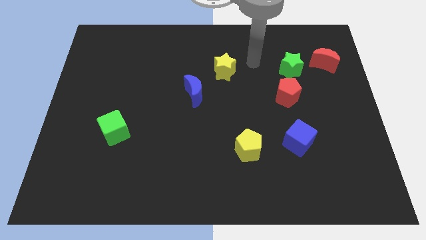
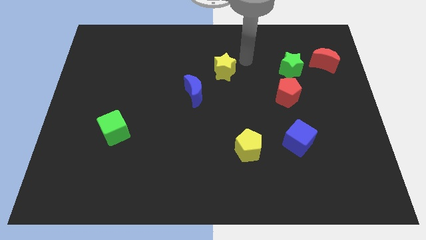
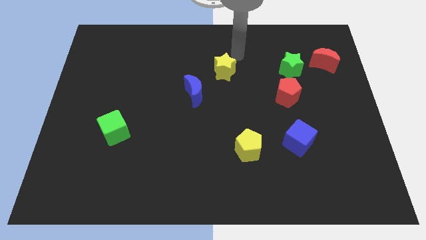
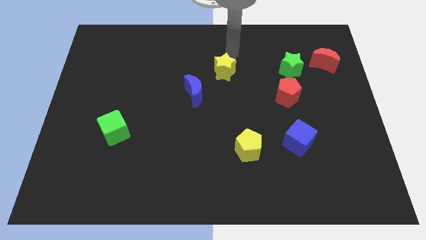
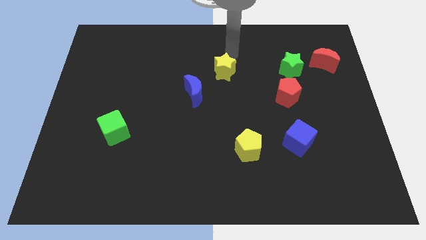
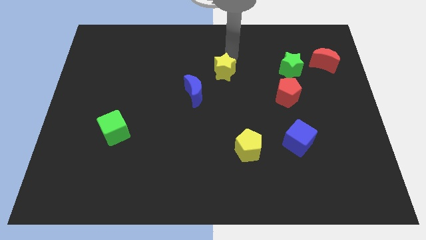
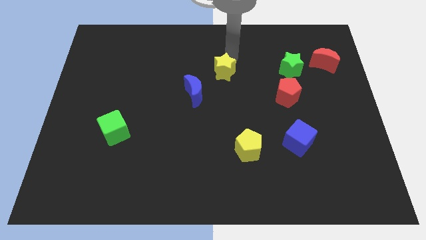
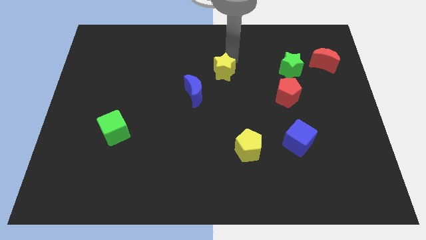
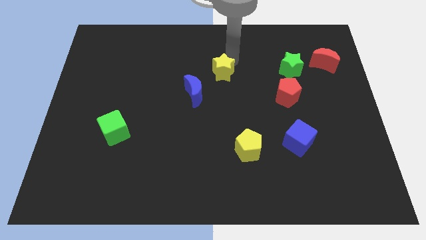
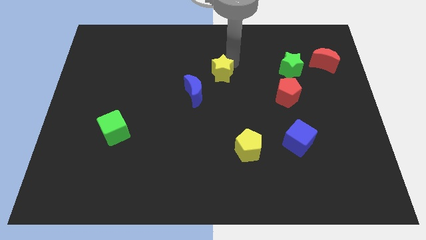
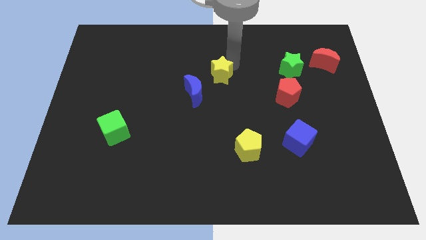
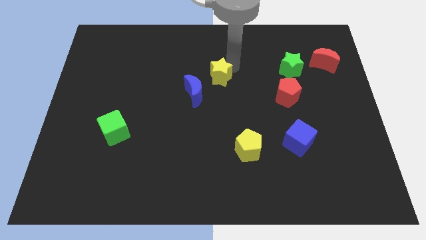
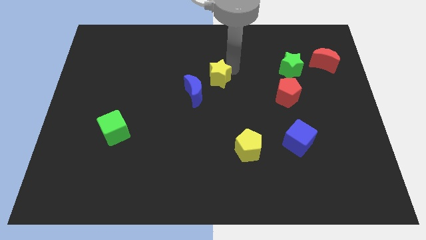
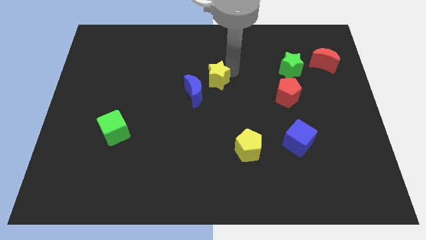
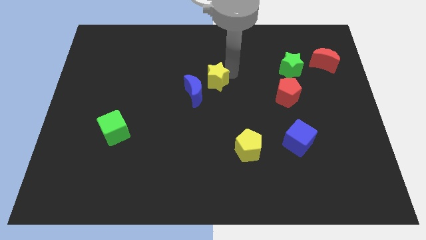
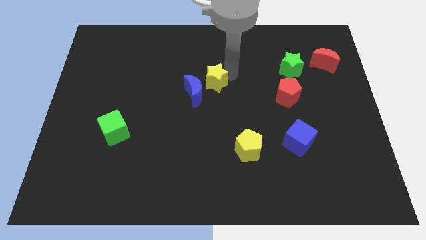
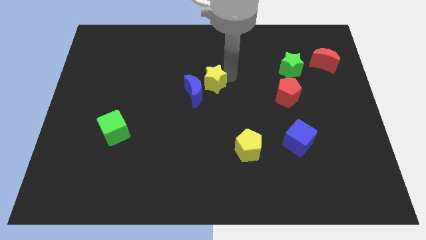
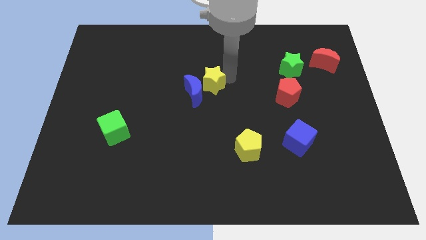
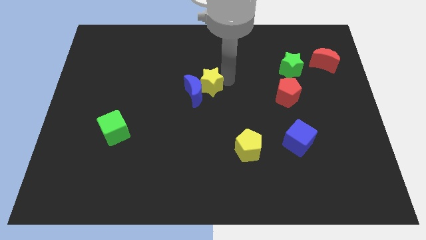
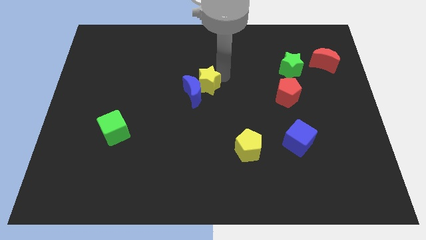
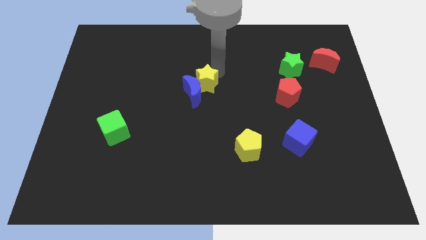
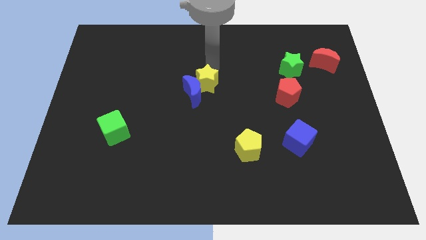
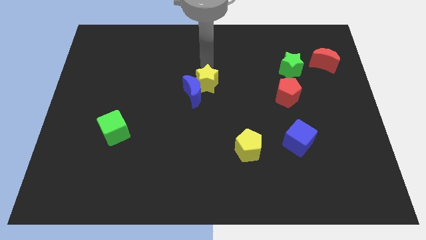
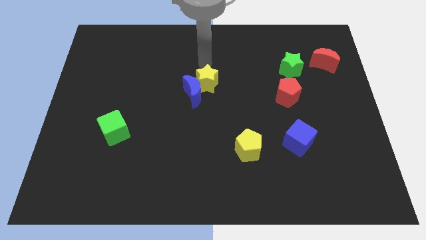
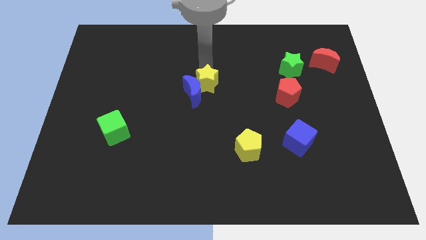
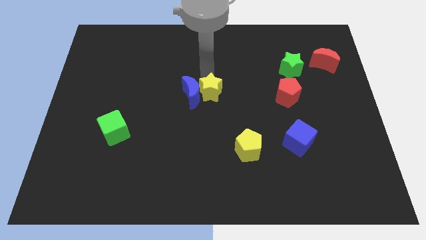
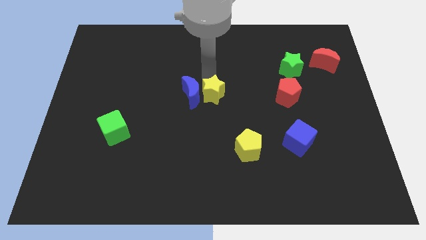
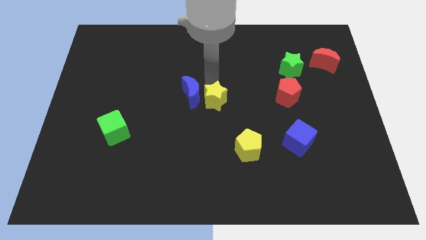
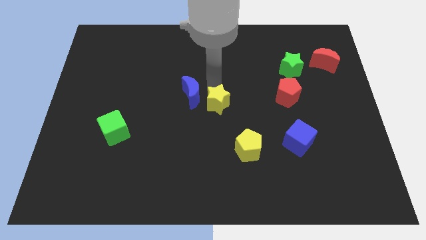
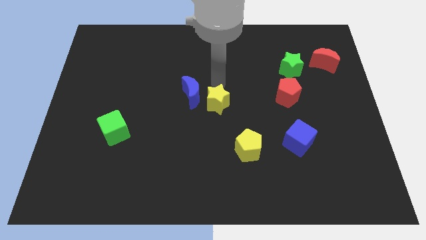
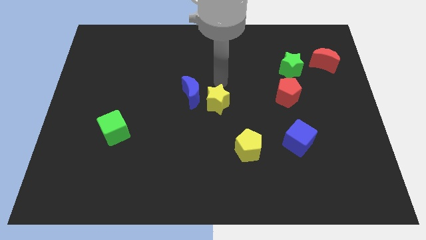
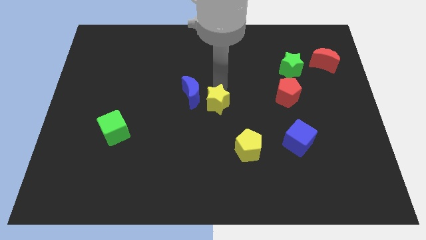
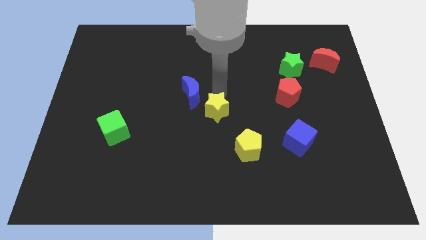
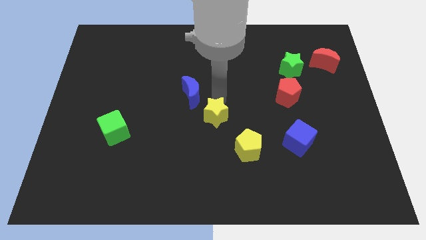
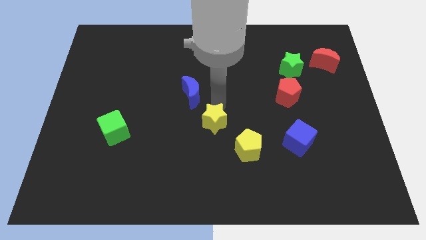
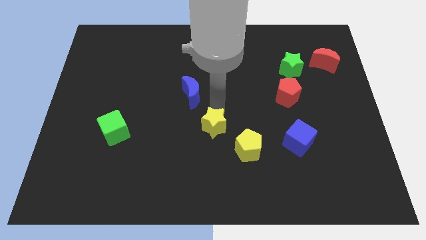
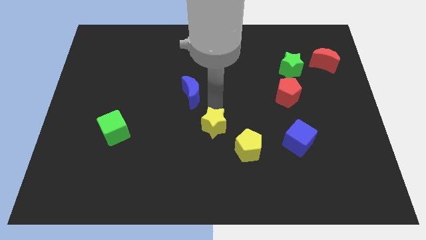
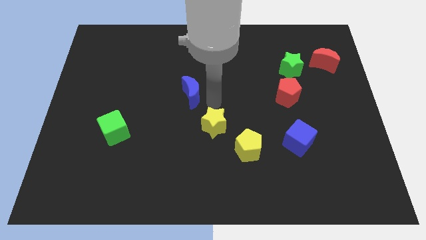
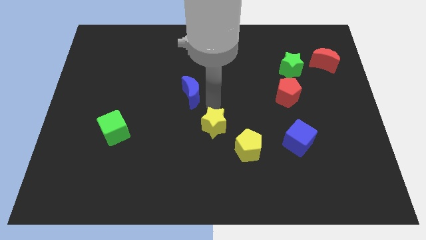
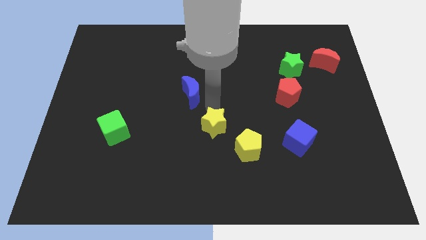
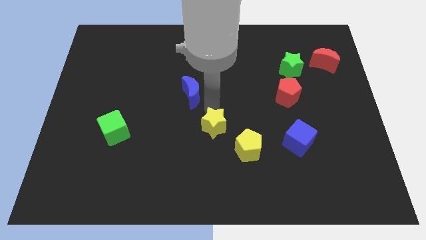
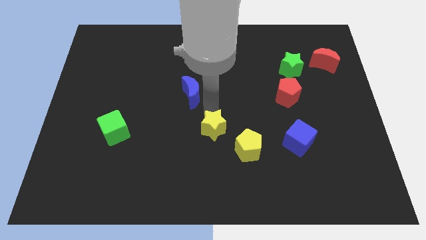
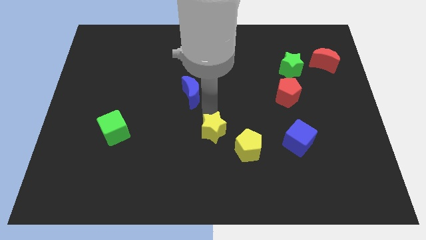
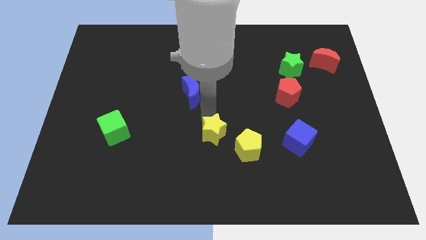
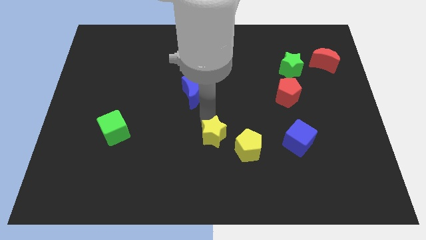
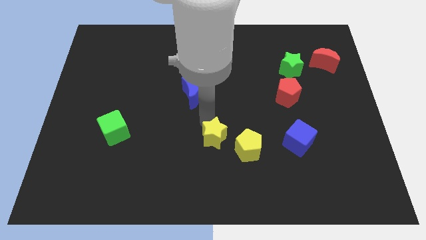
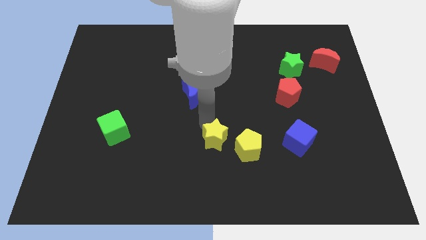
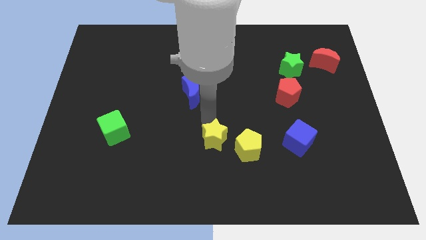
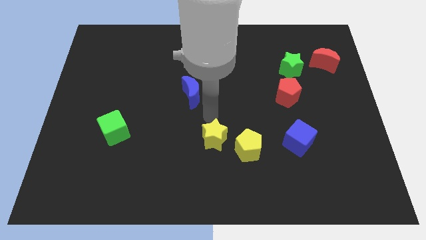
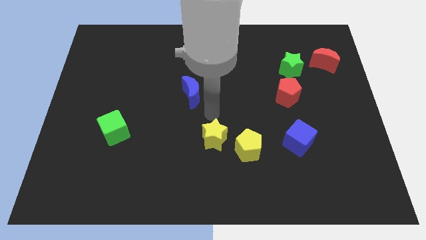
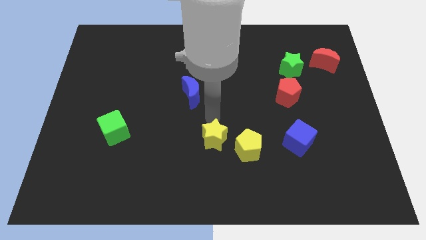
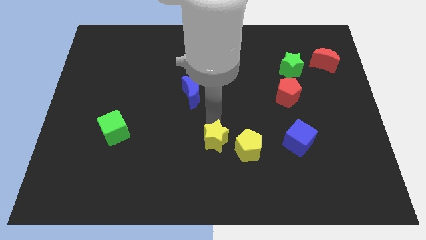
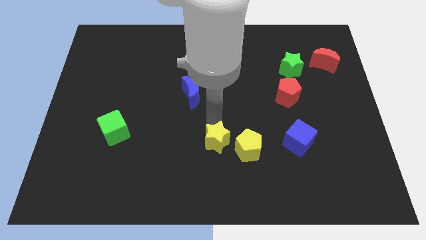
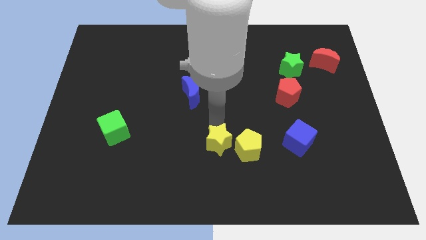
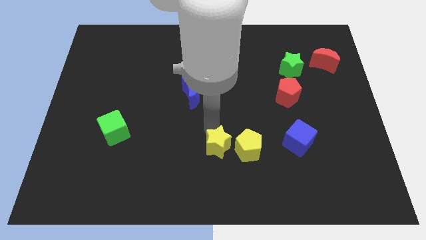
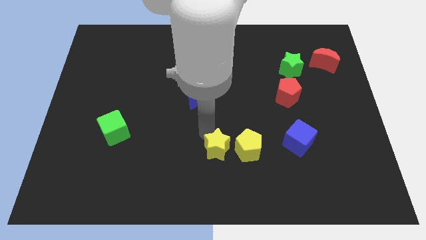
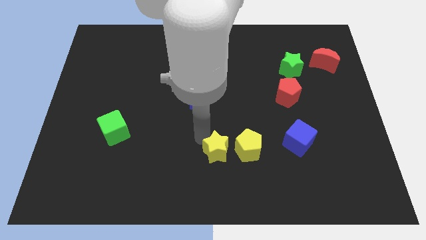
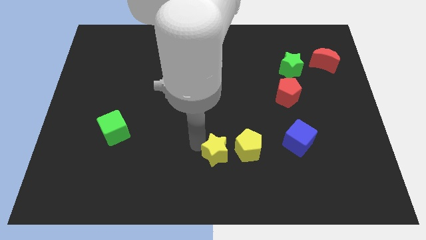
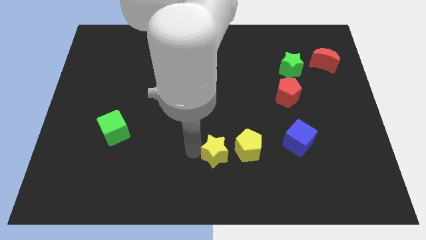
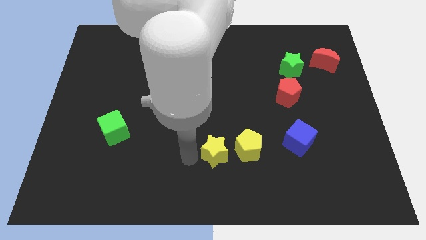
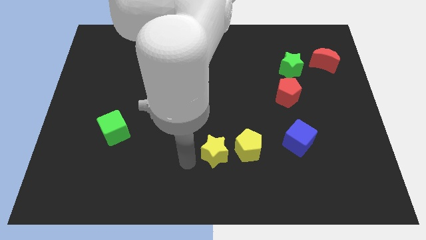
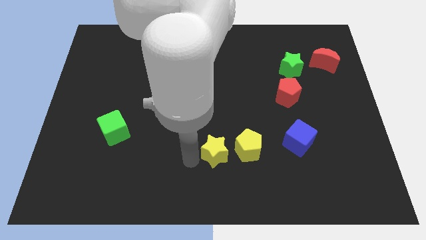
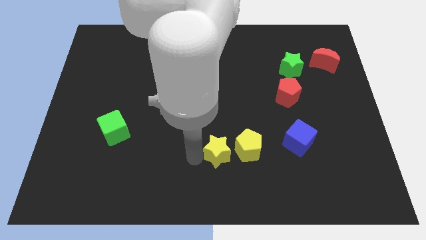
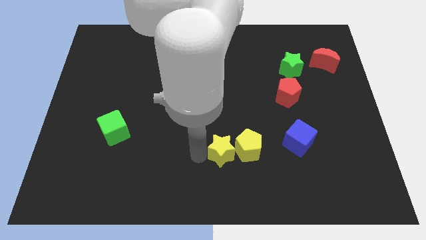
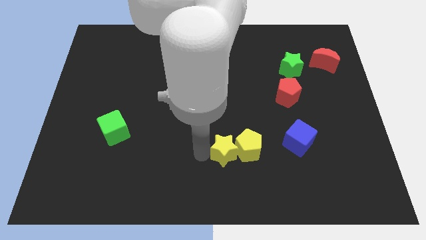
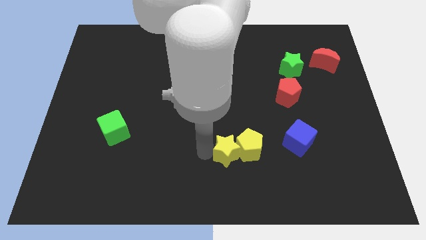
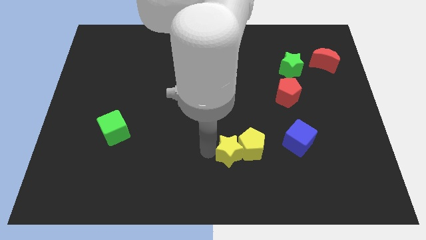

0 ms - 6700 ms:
slide the yellow star just left of the blue cube

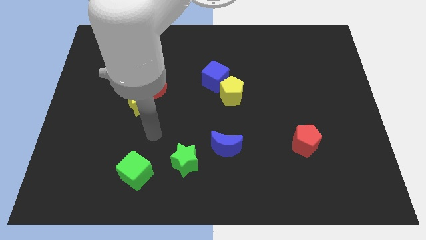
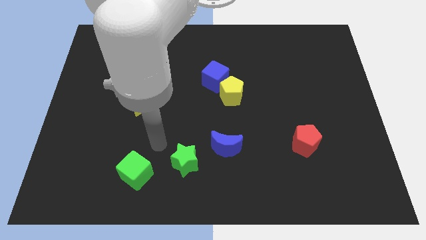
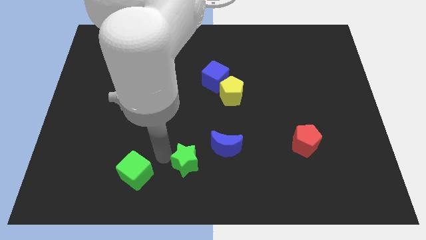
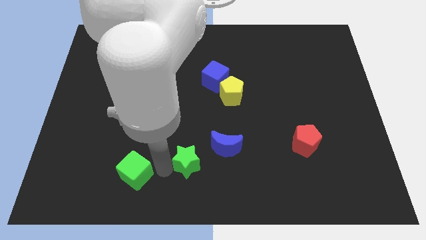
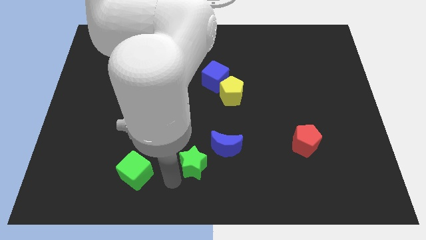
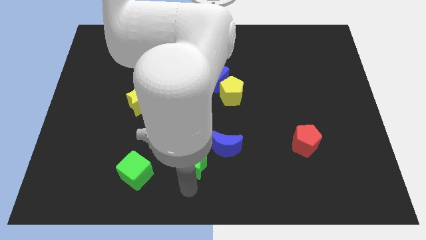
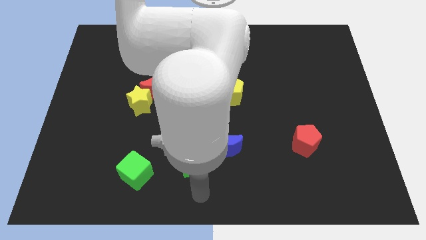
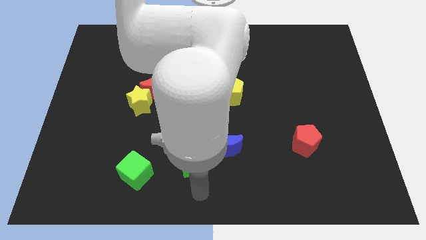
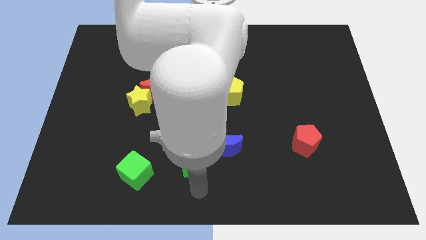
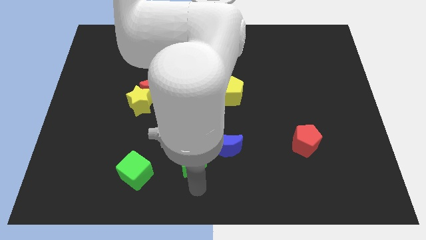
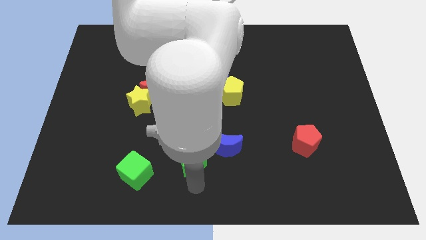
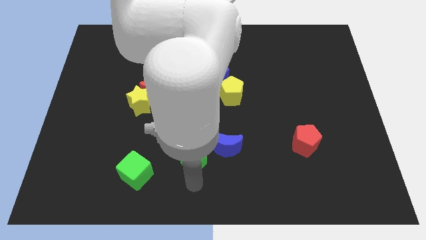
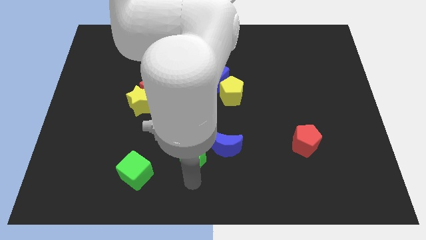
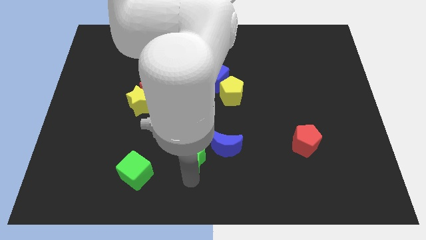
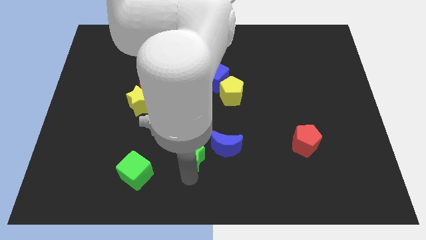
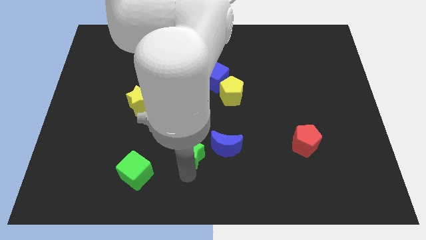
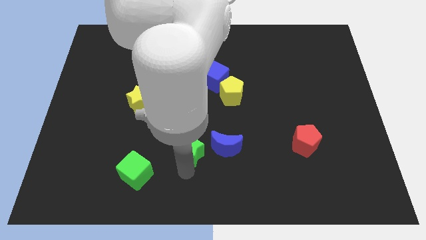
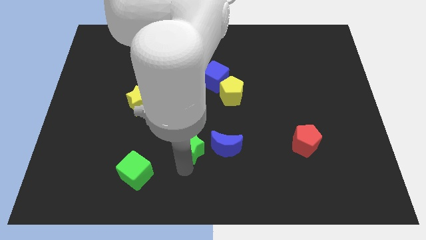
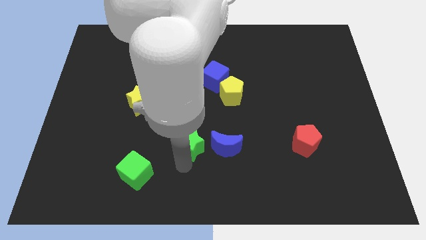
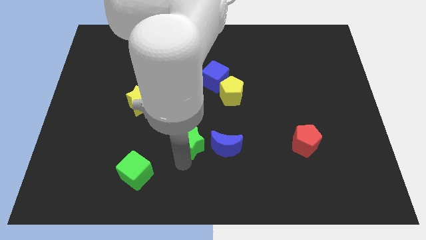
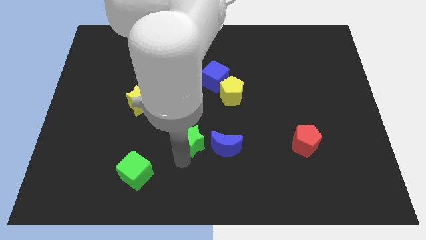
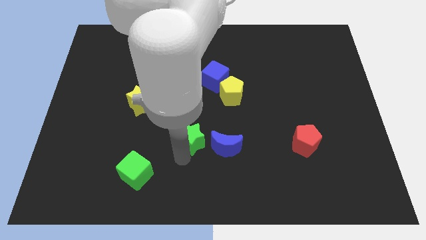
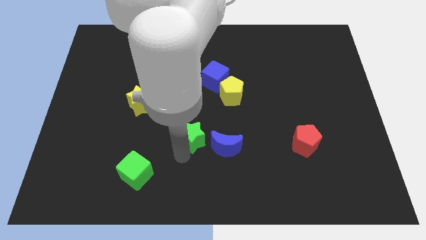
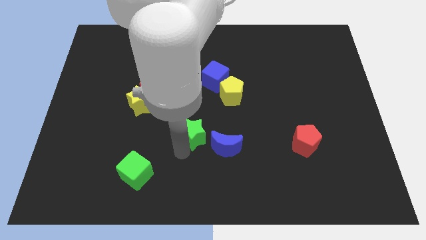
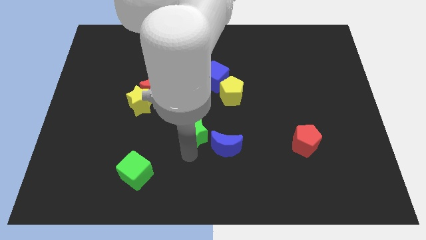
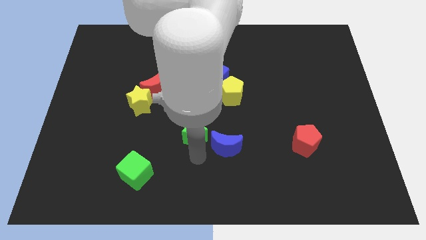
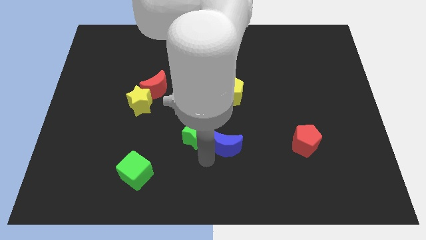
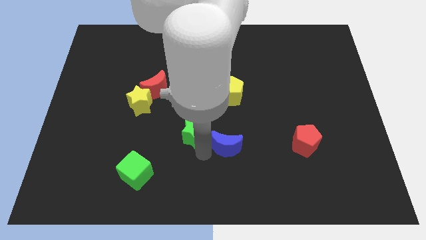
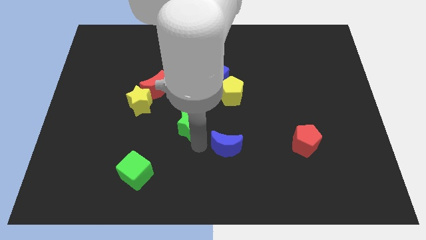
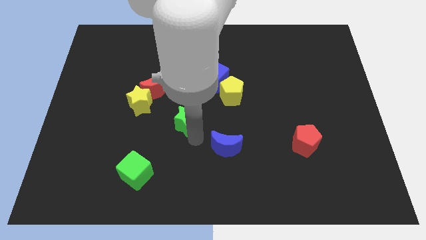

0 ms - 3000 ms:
slide the green star diagonally down and to the right of the red moon
